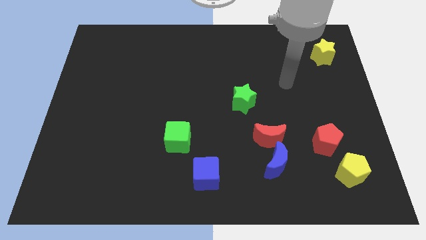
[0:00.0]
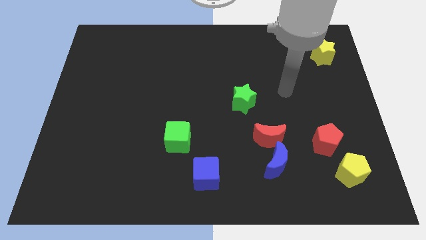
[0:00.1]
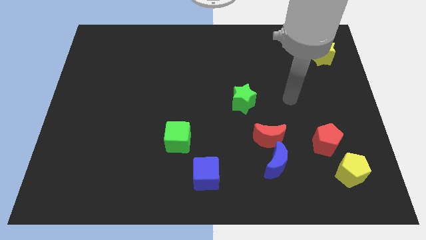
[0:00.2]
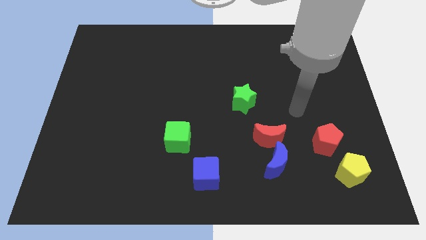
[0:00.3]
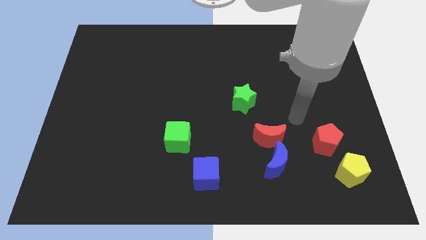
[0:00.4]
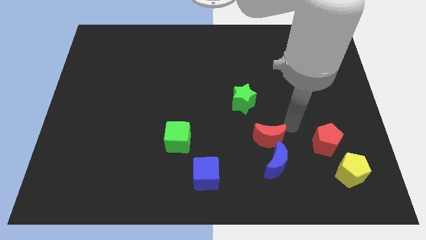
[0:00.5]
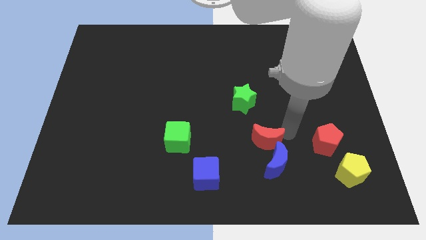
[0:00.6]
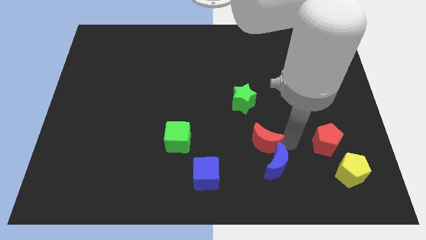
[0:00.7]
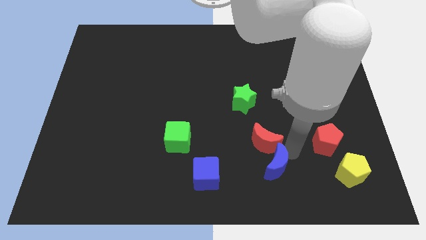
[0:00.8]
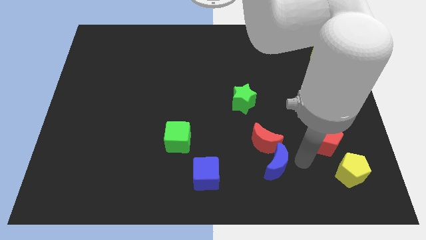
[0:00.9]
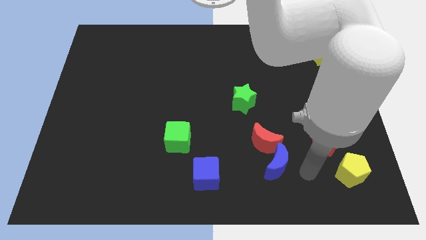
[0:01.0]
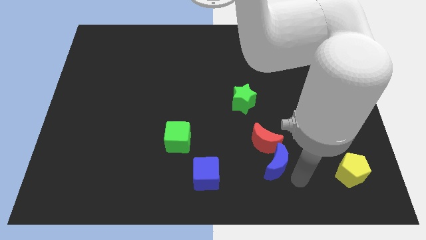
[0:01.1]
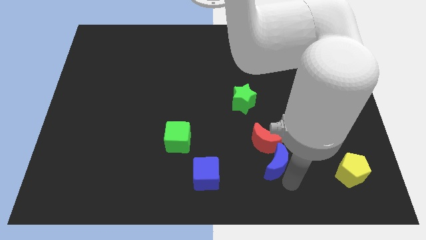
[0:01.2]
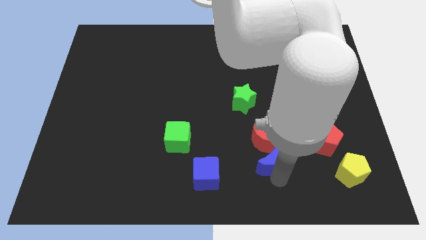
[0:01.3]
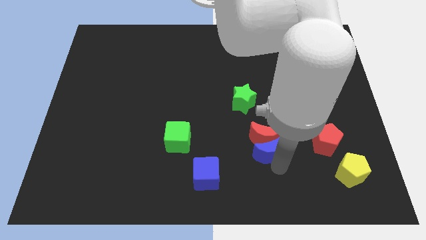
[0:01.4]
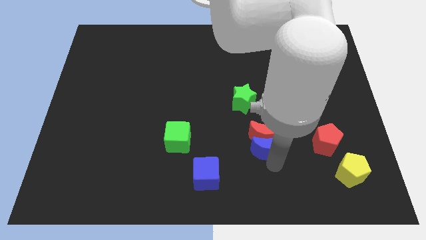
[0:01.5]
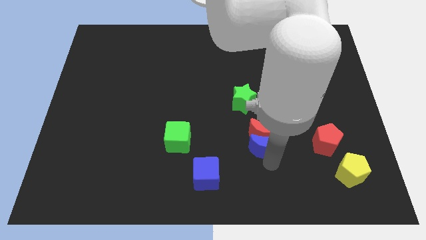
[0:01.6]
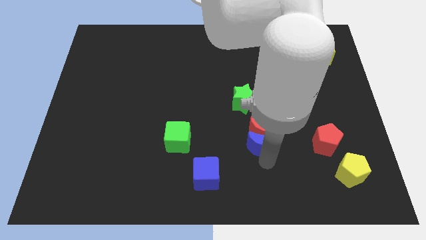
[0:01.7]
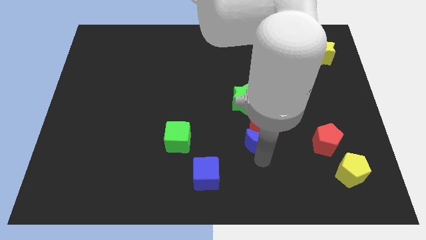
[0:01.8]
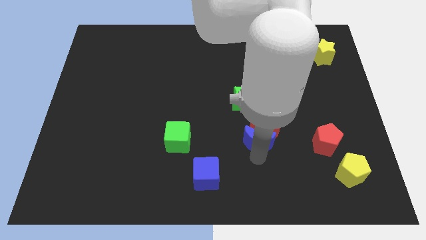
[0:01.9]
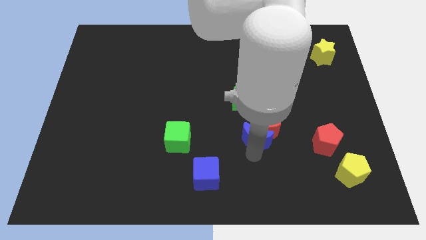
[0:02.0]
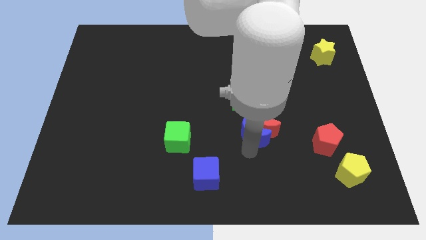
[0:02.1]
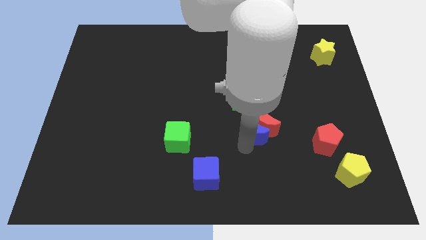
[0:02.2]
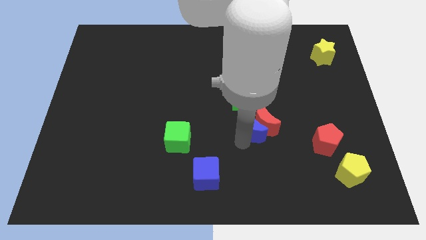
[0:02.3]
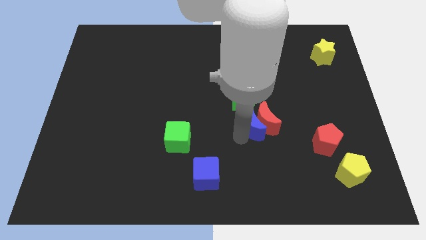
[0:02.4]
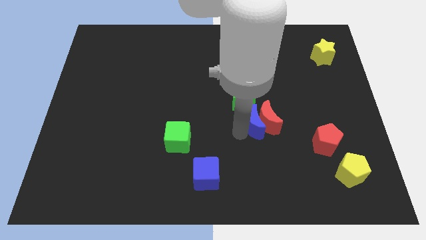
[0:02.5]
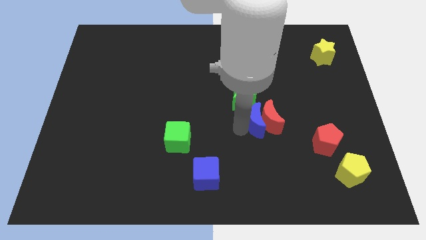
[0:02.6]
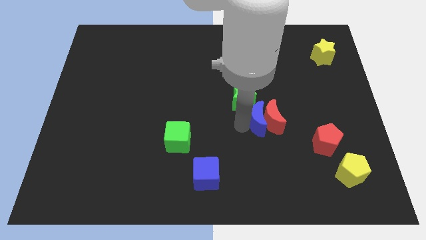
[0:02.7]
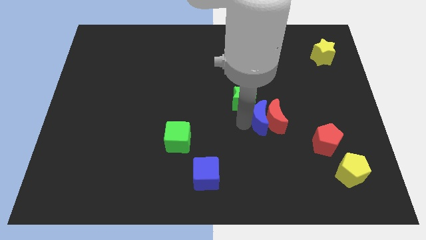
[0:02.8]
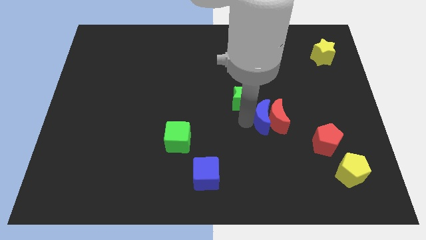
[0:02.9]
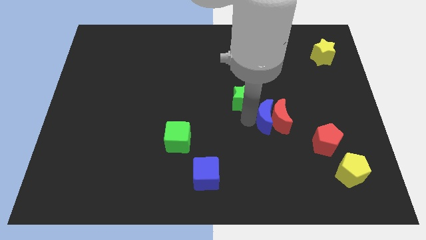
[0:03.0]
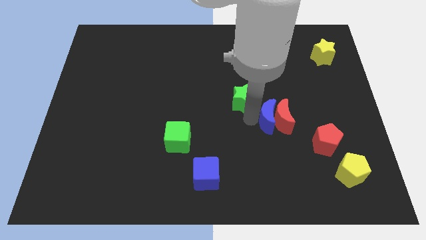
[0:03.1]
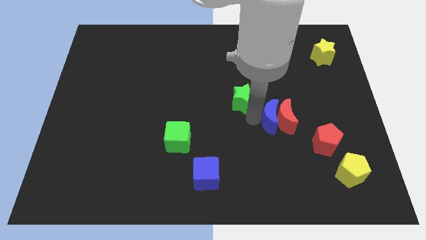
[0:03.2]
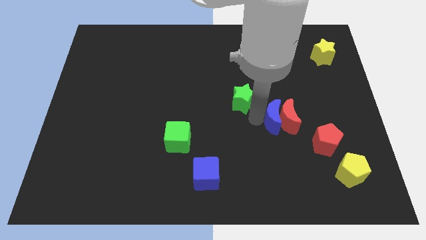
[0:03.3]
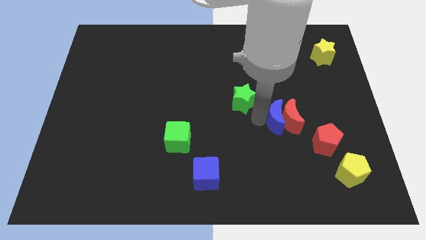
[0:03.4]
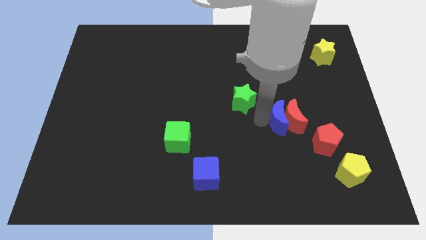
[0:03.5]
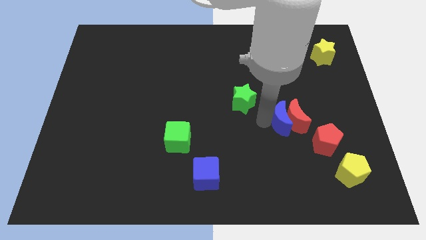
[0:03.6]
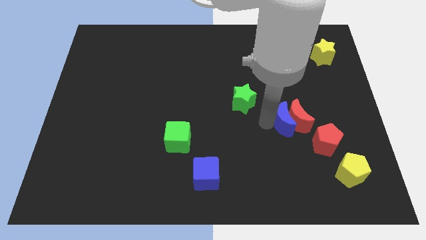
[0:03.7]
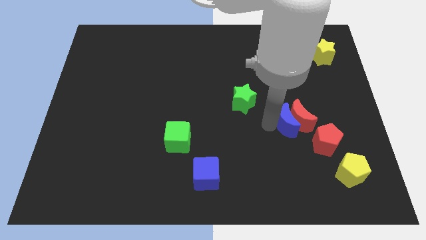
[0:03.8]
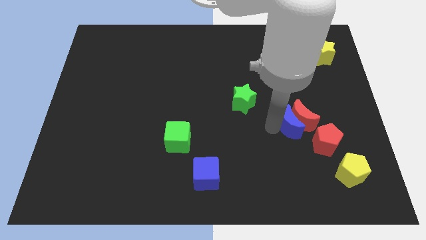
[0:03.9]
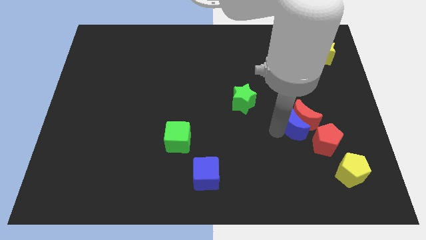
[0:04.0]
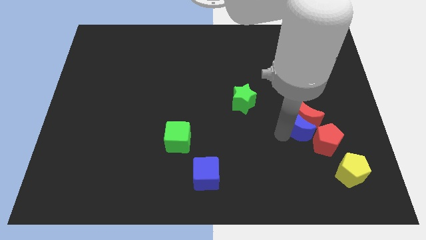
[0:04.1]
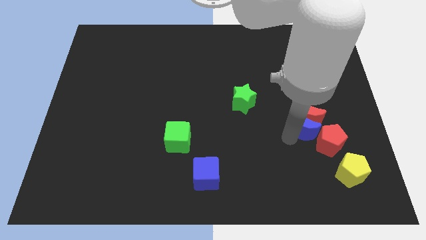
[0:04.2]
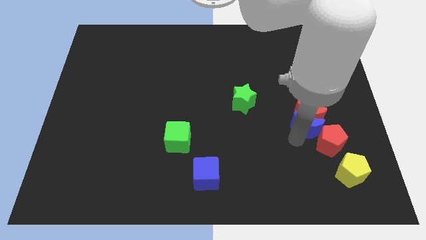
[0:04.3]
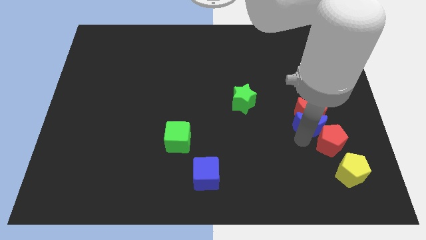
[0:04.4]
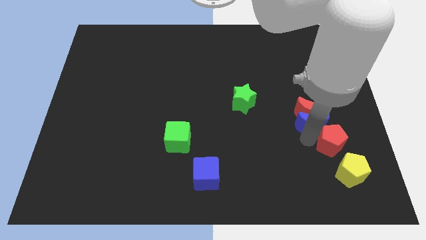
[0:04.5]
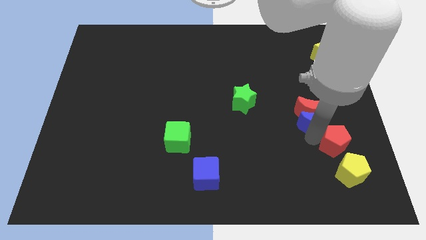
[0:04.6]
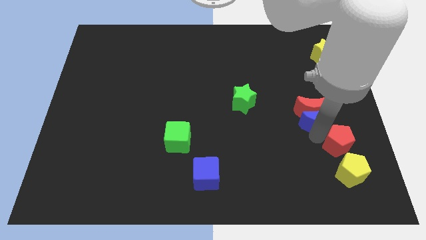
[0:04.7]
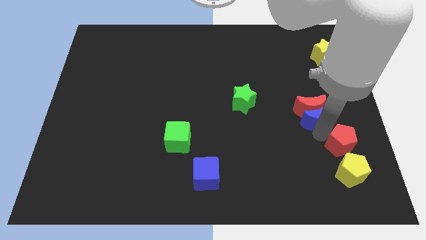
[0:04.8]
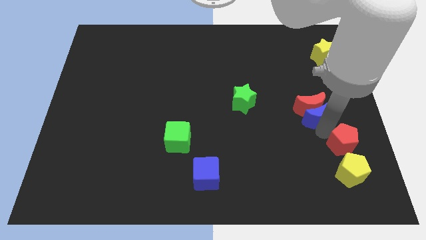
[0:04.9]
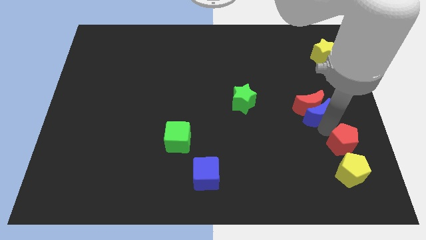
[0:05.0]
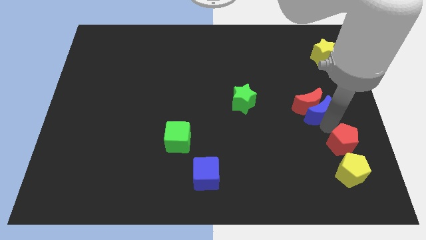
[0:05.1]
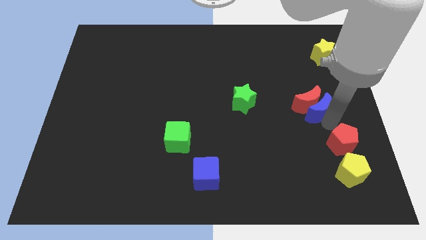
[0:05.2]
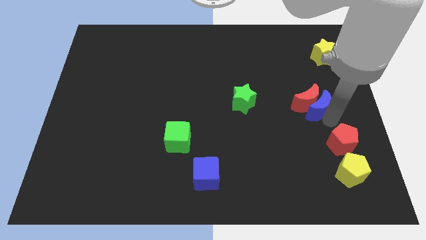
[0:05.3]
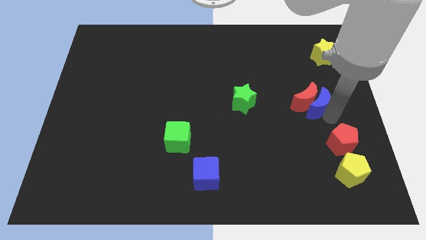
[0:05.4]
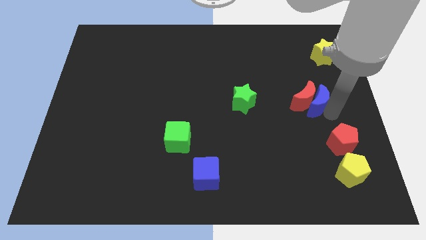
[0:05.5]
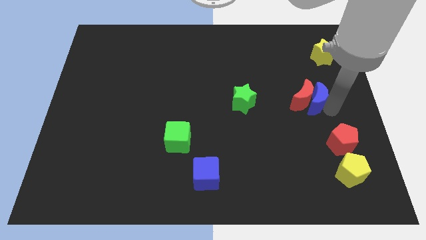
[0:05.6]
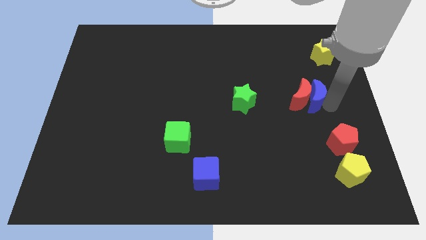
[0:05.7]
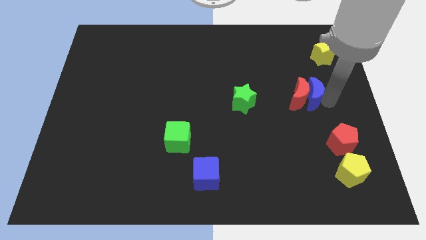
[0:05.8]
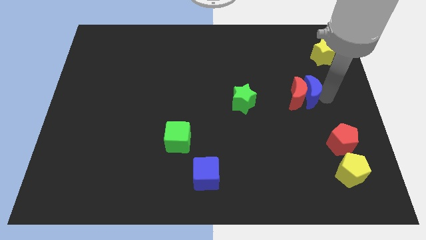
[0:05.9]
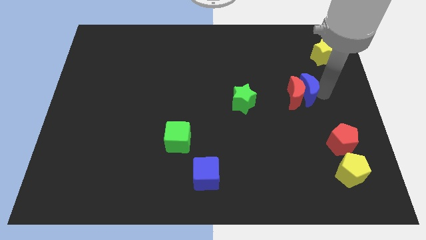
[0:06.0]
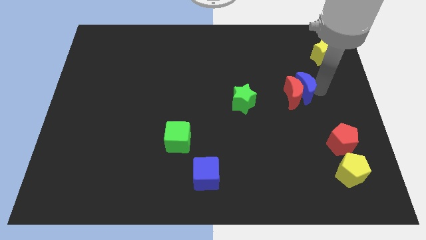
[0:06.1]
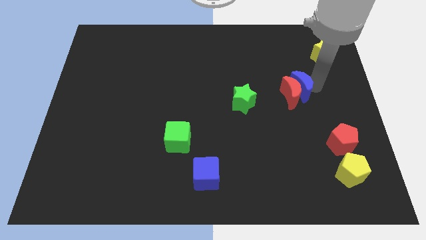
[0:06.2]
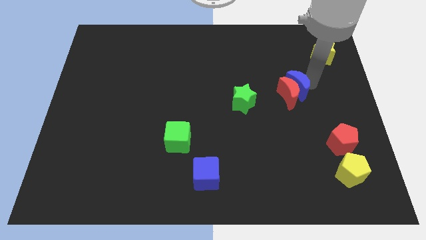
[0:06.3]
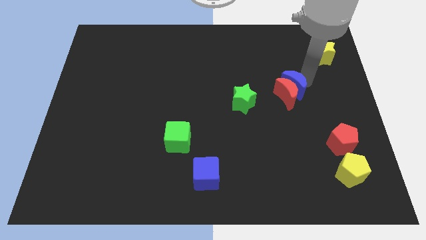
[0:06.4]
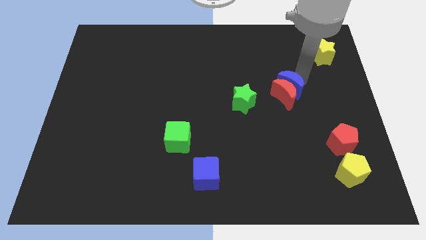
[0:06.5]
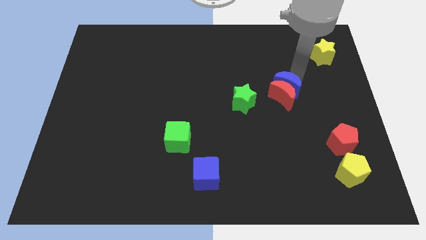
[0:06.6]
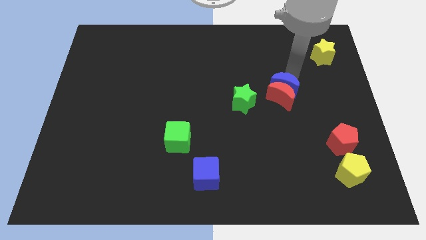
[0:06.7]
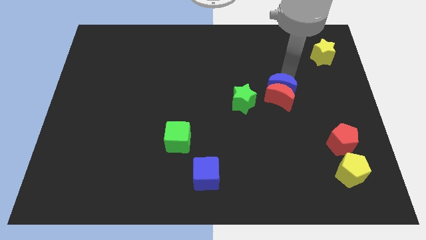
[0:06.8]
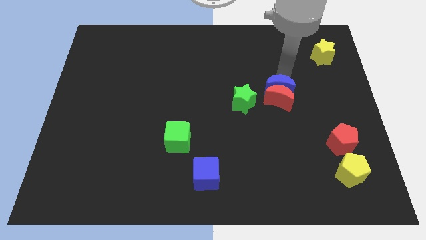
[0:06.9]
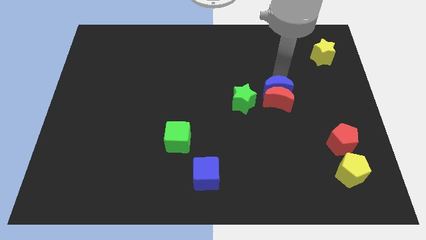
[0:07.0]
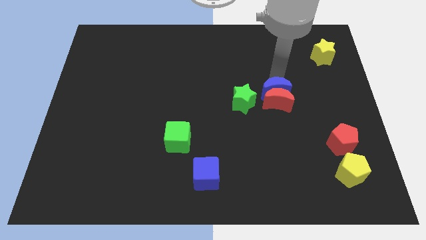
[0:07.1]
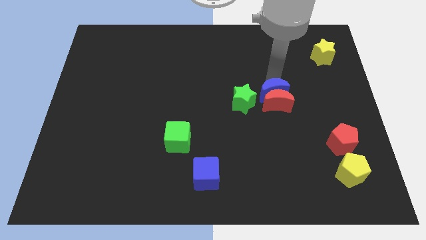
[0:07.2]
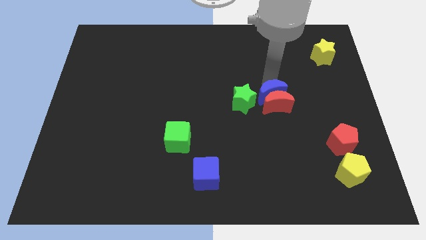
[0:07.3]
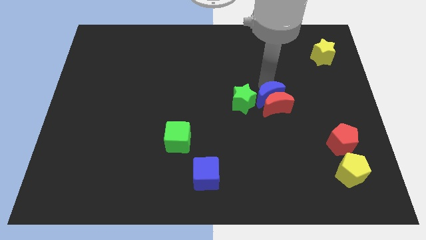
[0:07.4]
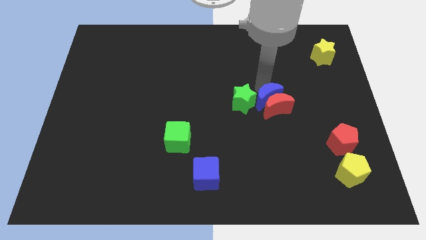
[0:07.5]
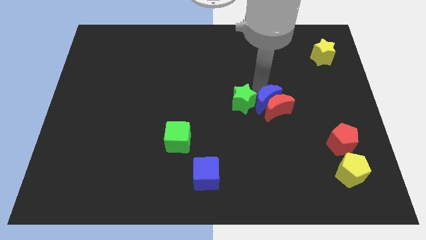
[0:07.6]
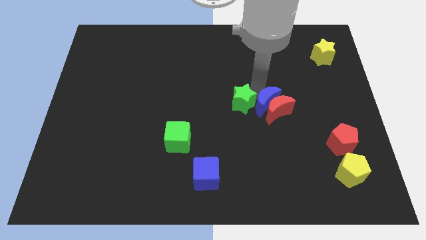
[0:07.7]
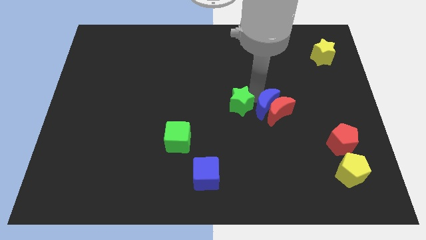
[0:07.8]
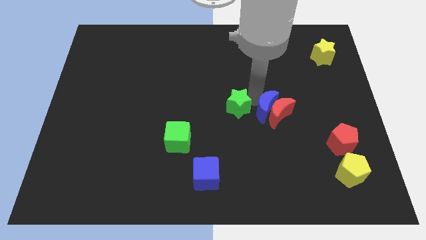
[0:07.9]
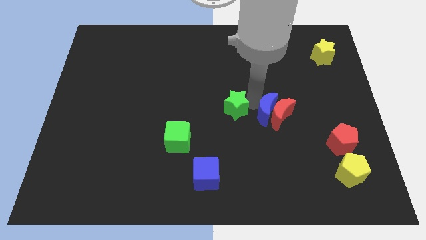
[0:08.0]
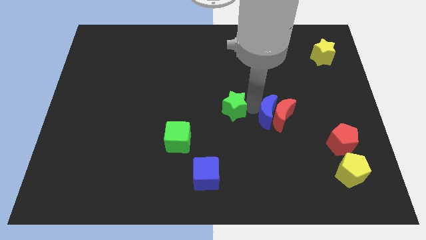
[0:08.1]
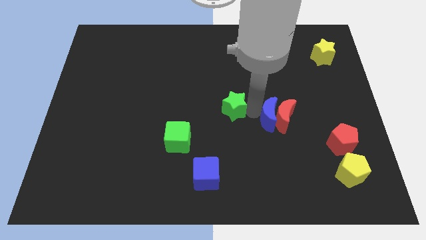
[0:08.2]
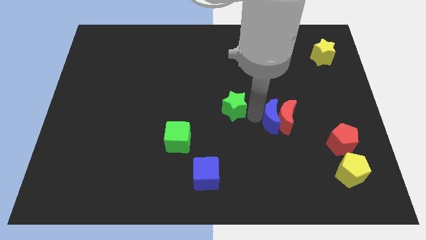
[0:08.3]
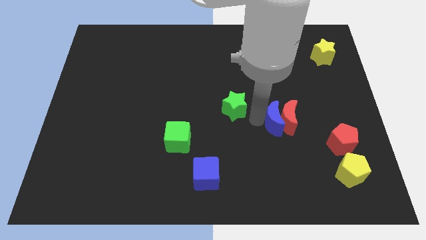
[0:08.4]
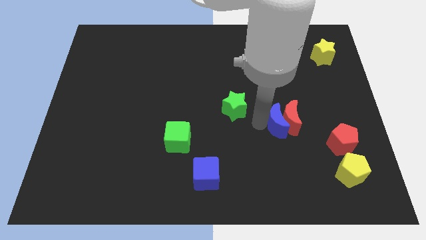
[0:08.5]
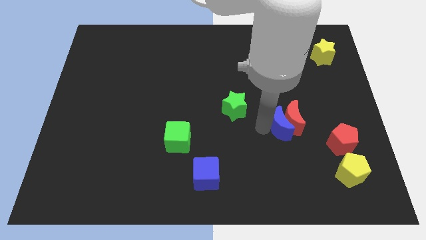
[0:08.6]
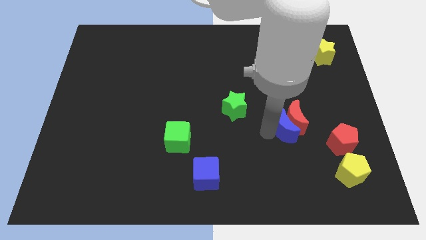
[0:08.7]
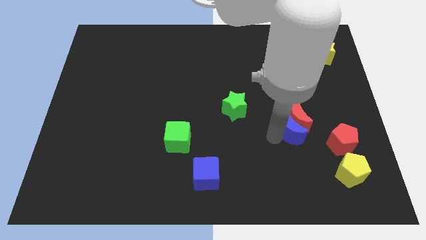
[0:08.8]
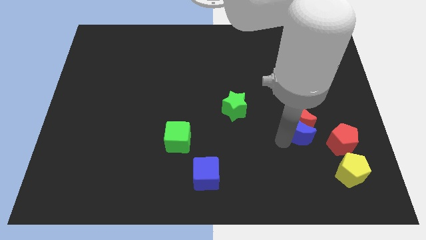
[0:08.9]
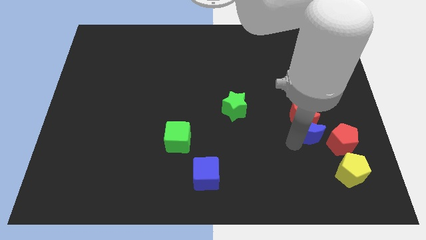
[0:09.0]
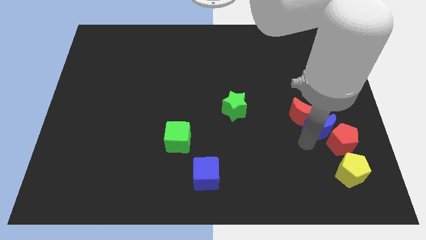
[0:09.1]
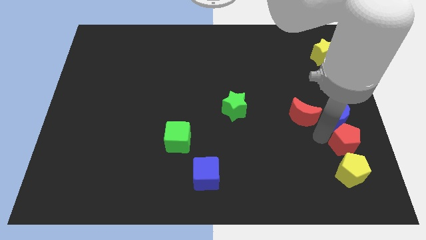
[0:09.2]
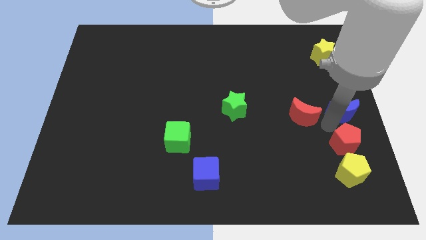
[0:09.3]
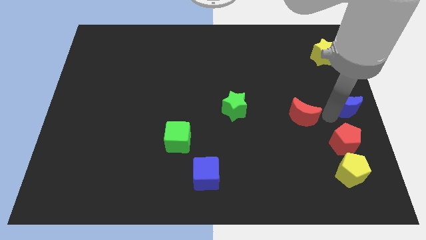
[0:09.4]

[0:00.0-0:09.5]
separate the red moon from the blue moon
